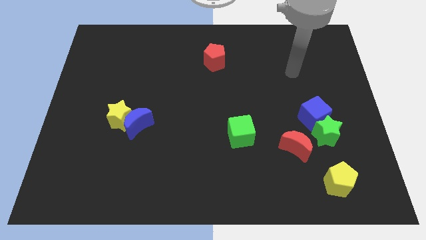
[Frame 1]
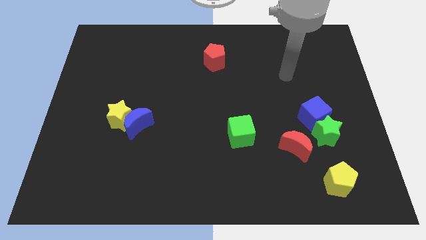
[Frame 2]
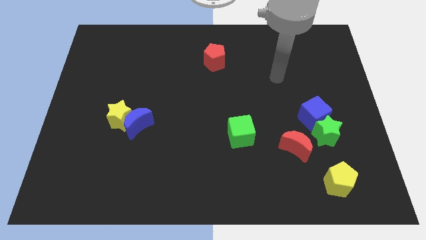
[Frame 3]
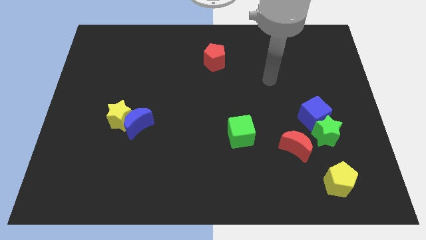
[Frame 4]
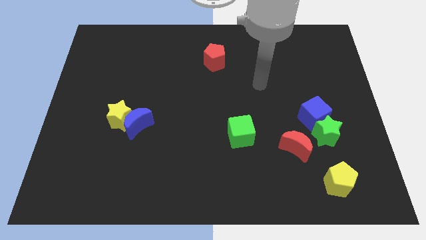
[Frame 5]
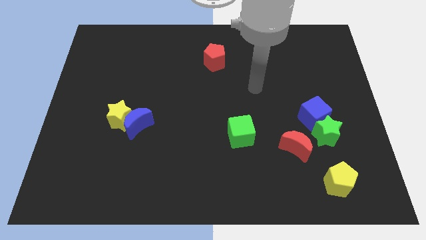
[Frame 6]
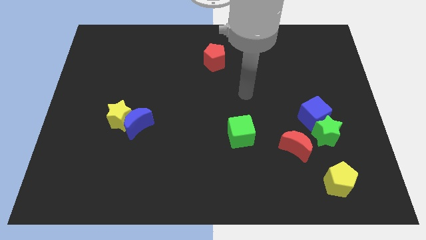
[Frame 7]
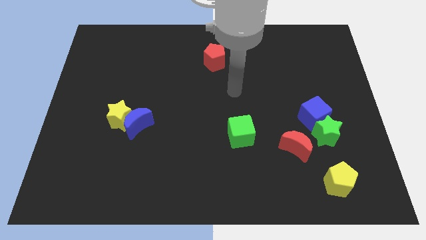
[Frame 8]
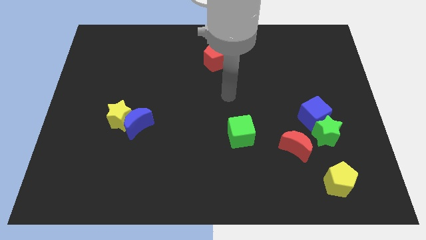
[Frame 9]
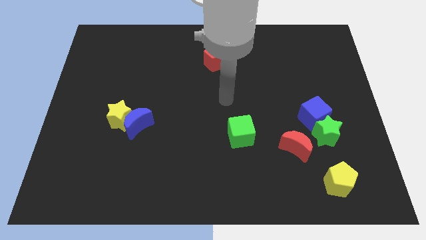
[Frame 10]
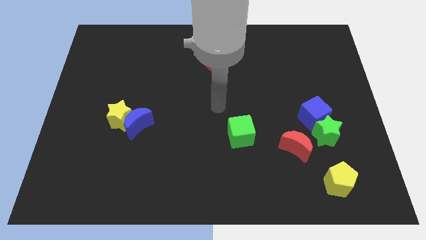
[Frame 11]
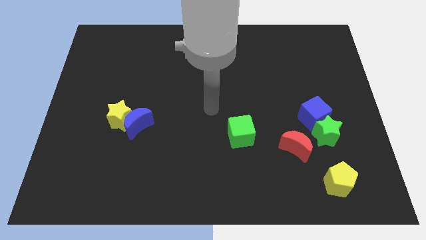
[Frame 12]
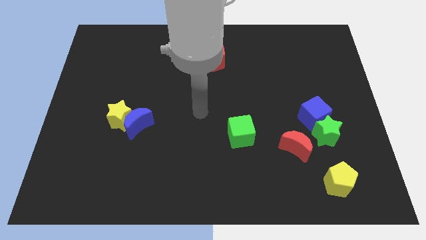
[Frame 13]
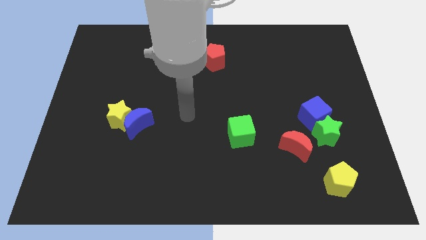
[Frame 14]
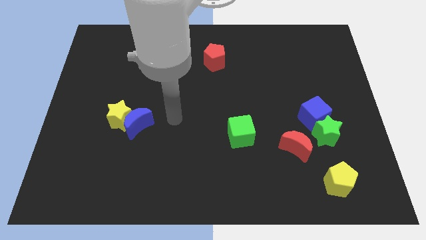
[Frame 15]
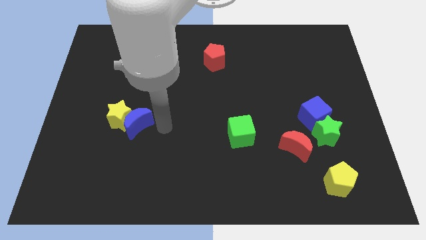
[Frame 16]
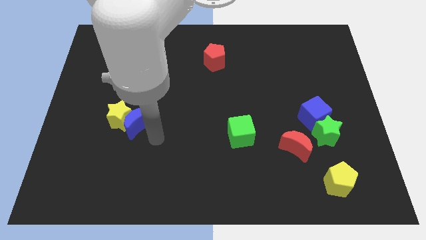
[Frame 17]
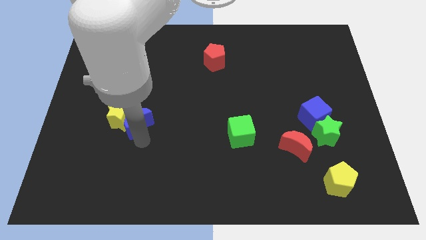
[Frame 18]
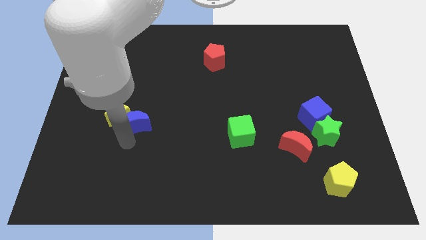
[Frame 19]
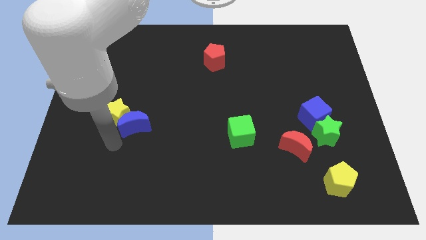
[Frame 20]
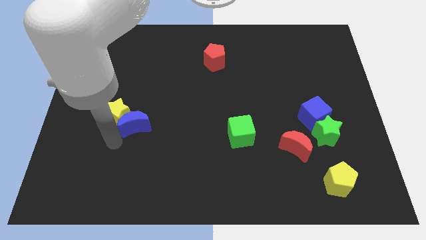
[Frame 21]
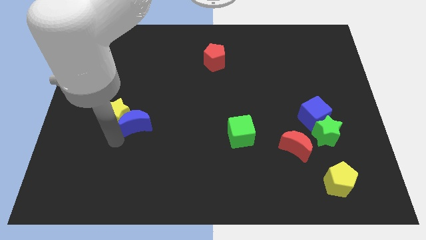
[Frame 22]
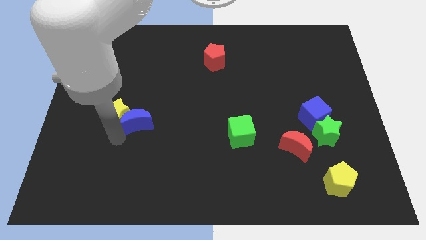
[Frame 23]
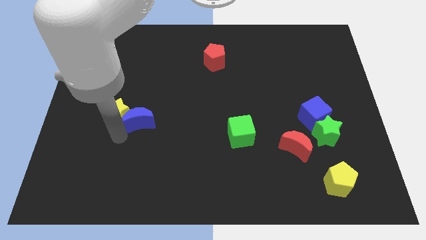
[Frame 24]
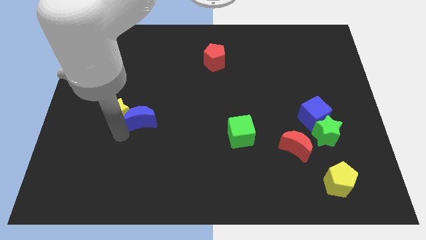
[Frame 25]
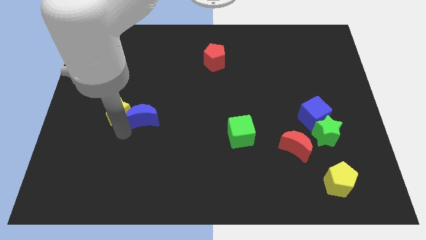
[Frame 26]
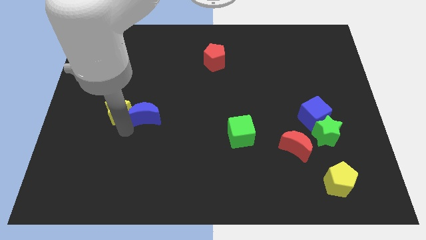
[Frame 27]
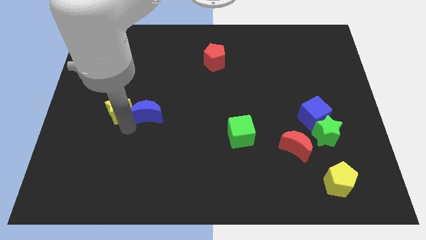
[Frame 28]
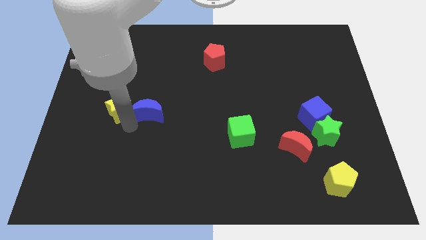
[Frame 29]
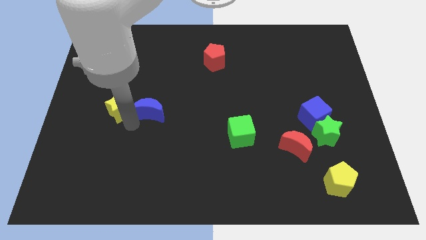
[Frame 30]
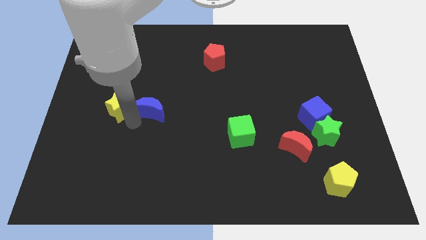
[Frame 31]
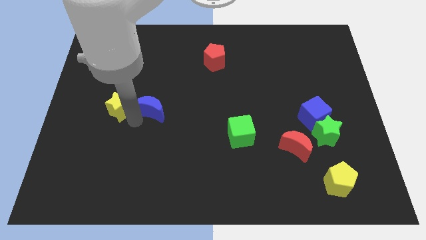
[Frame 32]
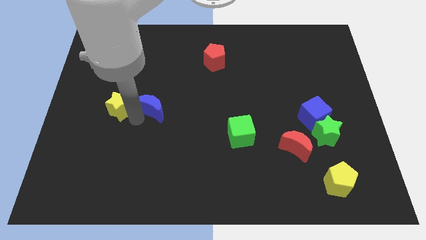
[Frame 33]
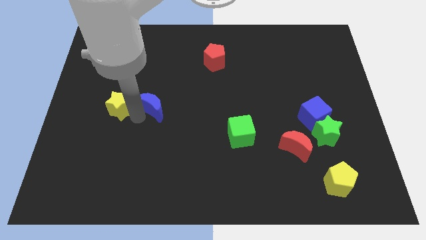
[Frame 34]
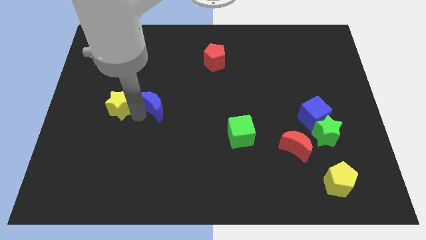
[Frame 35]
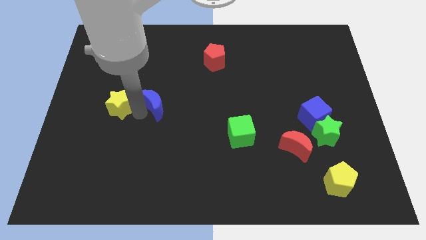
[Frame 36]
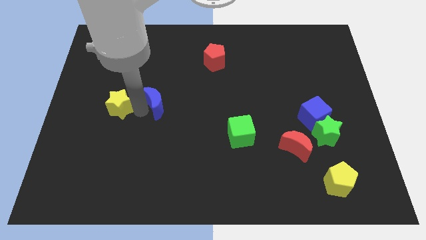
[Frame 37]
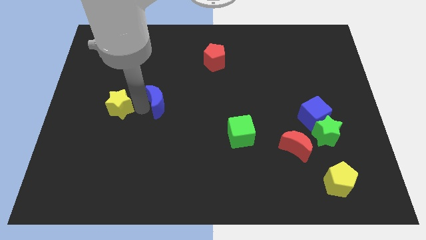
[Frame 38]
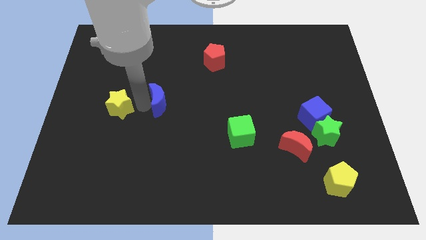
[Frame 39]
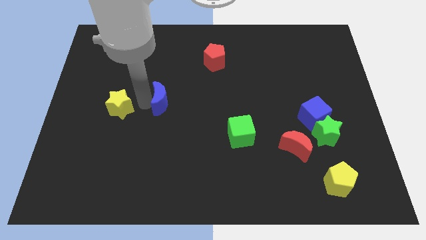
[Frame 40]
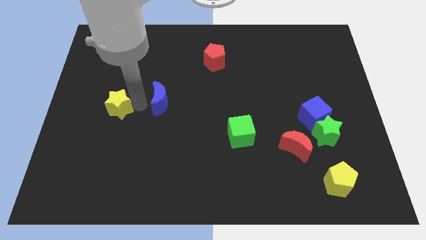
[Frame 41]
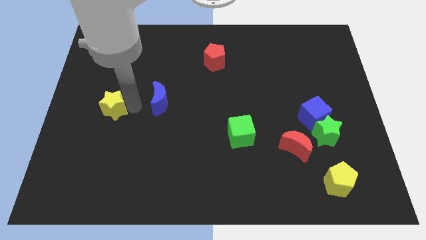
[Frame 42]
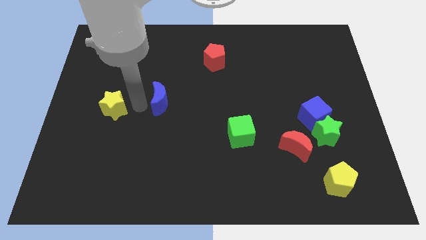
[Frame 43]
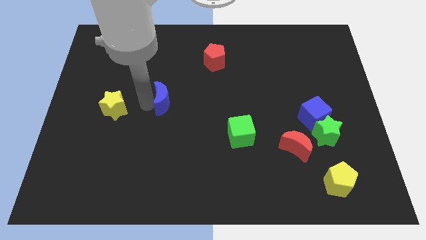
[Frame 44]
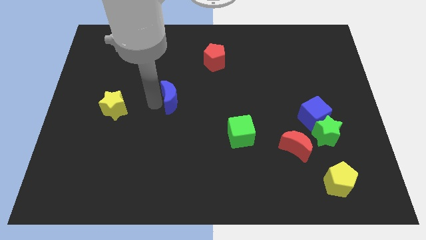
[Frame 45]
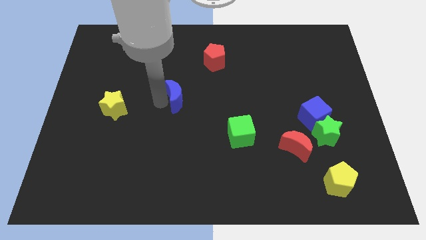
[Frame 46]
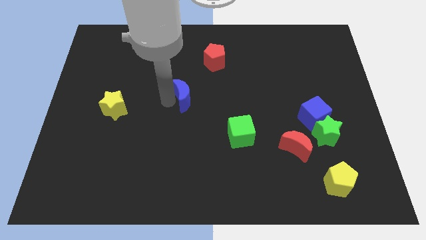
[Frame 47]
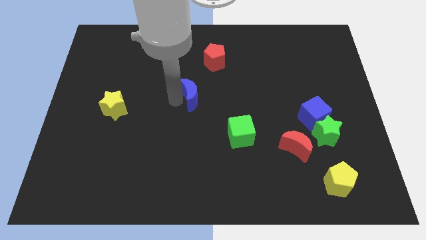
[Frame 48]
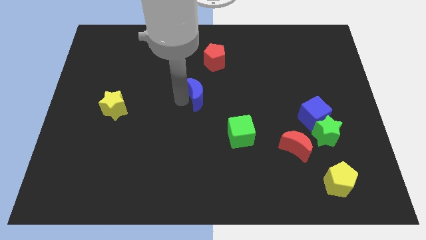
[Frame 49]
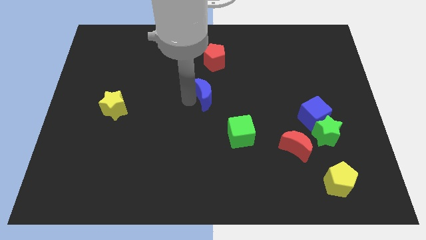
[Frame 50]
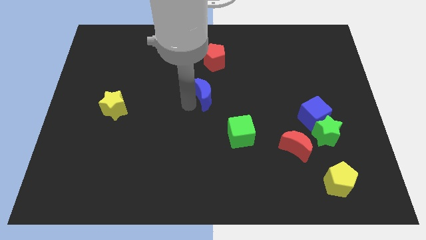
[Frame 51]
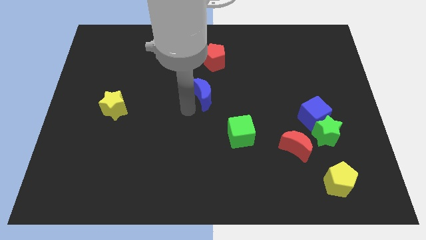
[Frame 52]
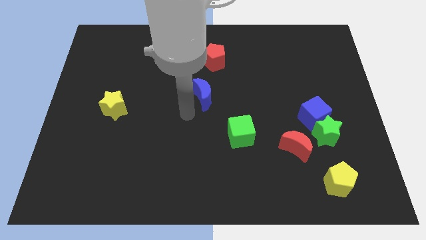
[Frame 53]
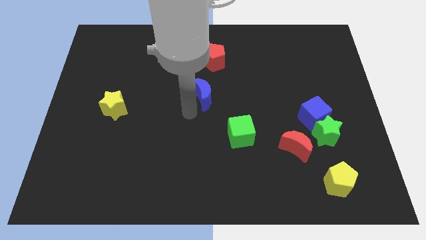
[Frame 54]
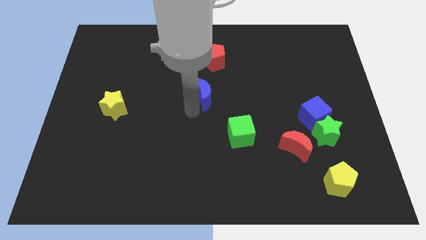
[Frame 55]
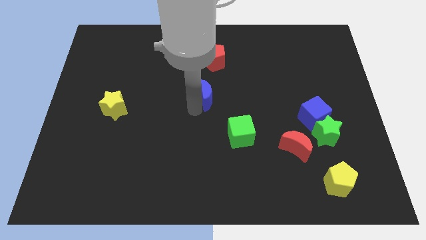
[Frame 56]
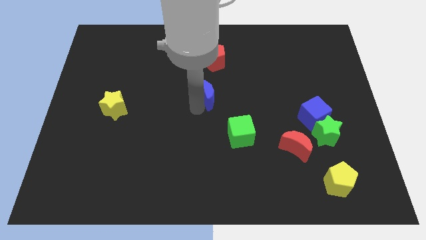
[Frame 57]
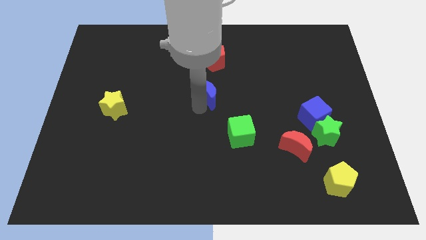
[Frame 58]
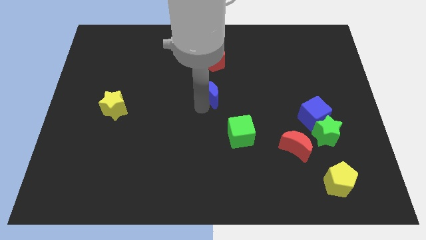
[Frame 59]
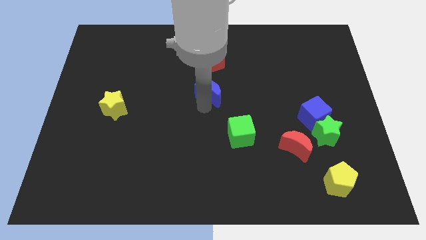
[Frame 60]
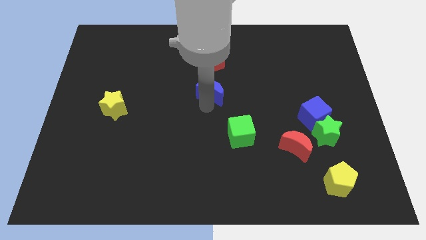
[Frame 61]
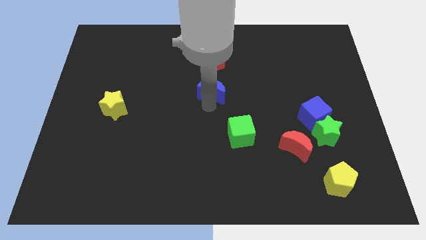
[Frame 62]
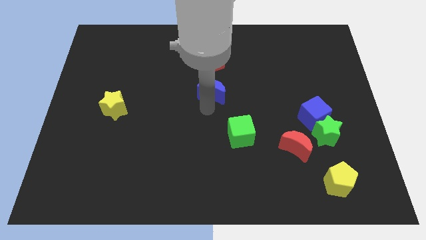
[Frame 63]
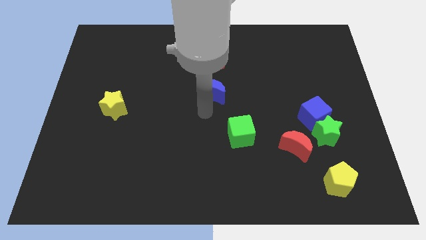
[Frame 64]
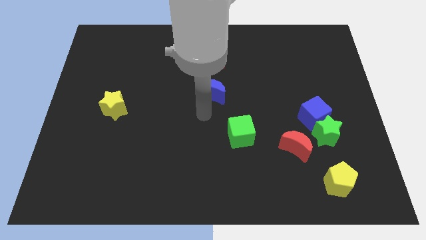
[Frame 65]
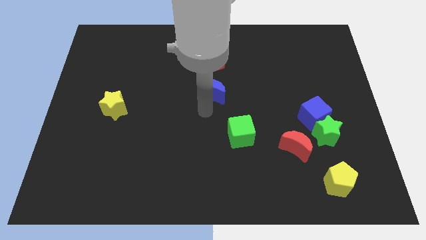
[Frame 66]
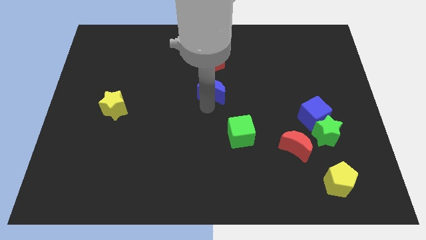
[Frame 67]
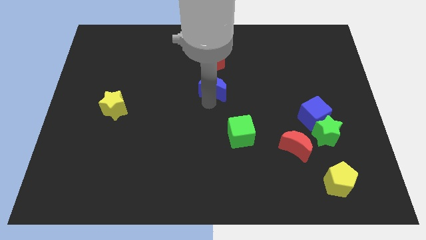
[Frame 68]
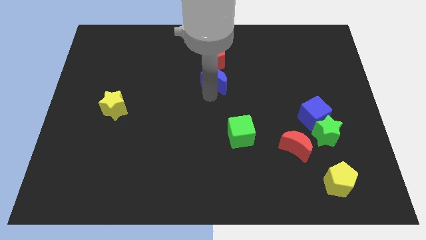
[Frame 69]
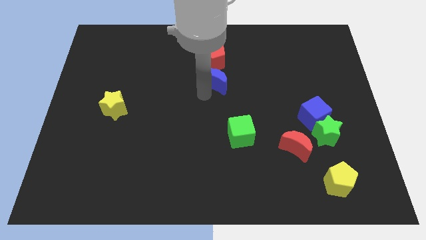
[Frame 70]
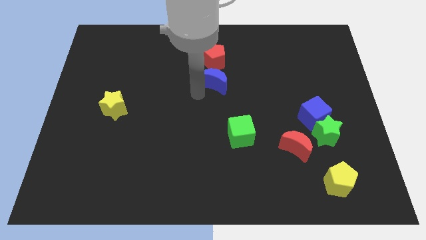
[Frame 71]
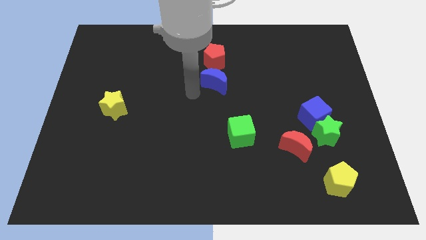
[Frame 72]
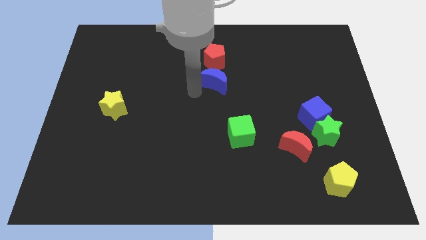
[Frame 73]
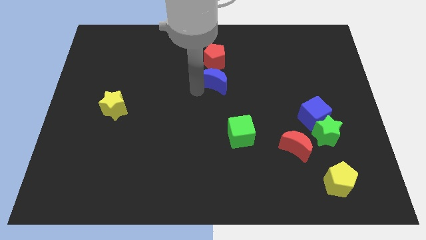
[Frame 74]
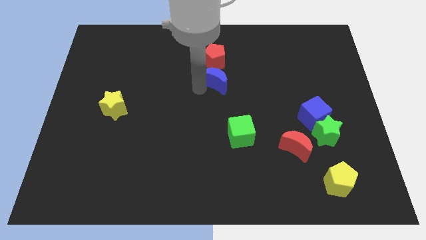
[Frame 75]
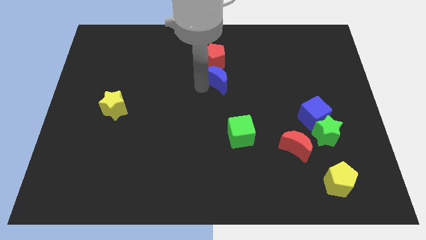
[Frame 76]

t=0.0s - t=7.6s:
slide the blue moon to the bottom right side of the red pentagon
